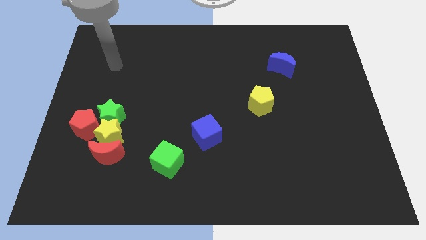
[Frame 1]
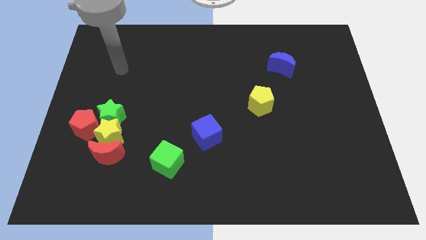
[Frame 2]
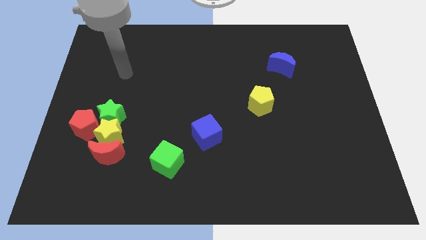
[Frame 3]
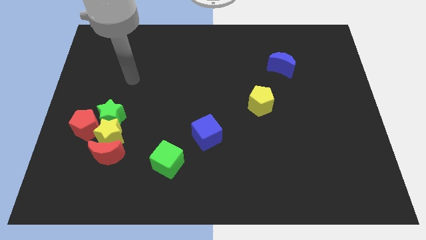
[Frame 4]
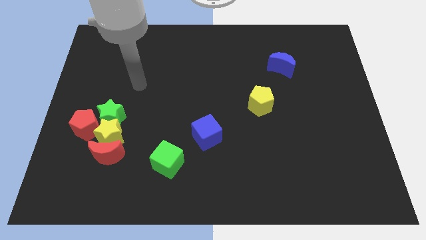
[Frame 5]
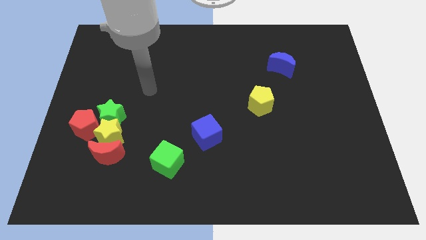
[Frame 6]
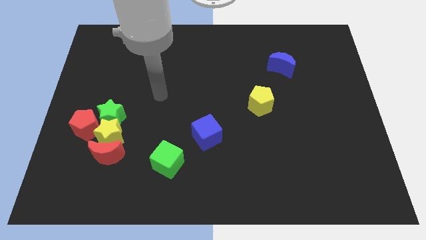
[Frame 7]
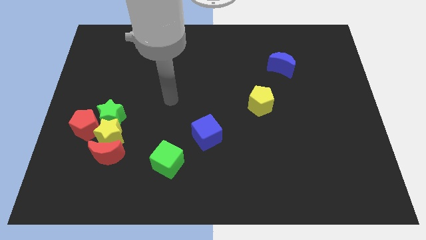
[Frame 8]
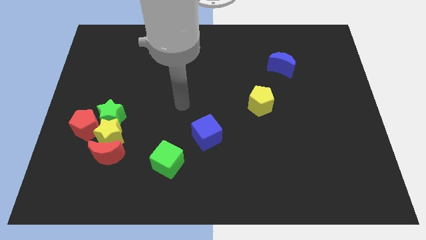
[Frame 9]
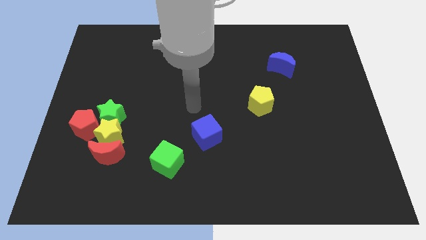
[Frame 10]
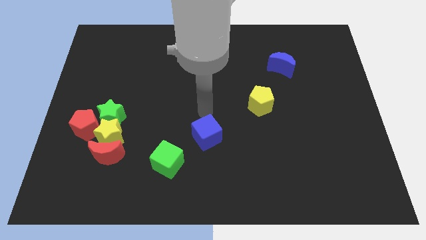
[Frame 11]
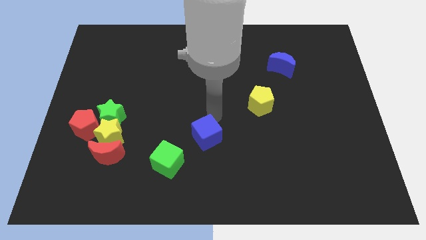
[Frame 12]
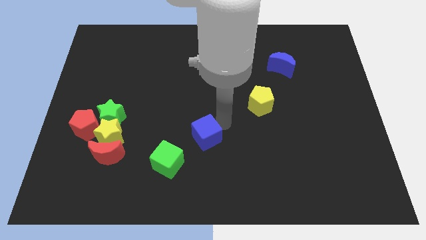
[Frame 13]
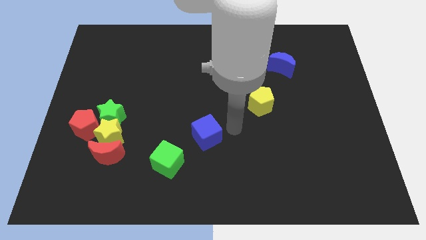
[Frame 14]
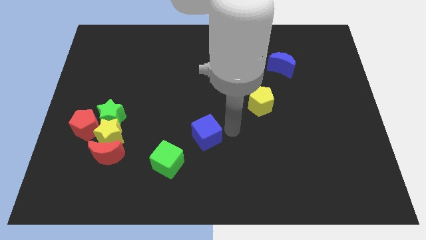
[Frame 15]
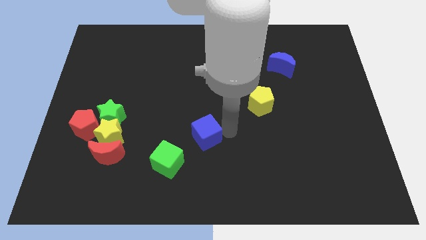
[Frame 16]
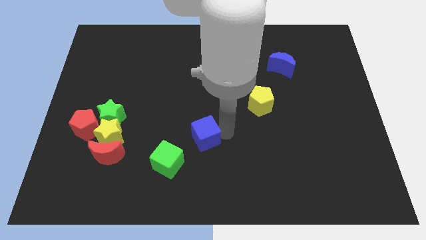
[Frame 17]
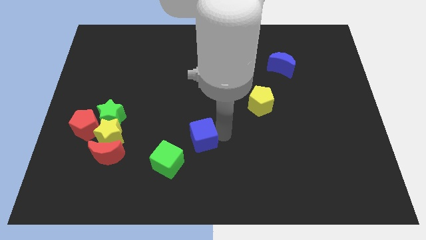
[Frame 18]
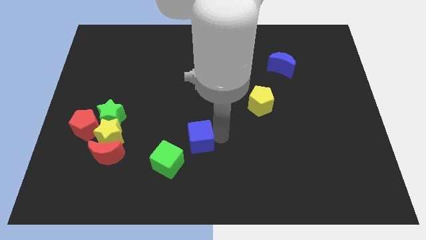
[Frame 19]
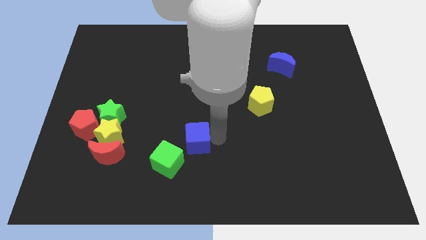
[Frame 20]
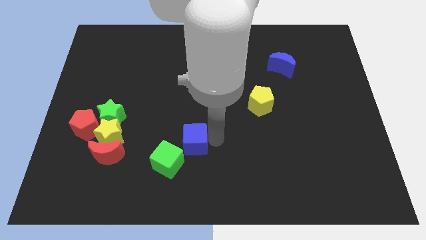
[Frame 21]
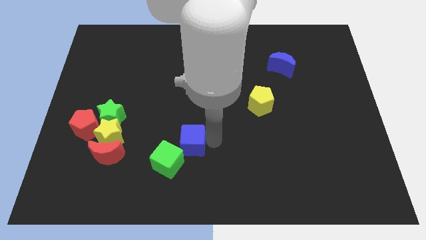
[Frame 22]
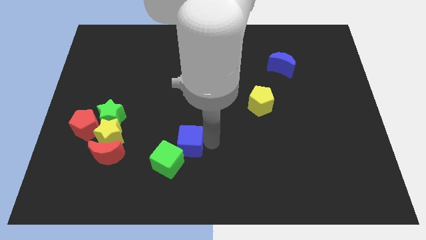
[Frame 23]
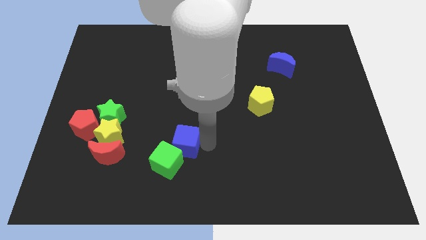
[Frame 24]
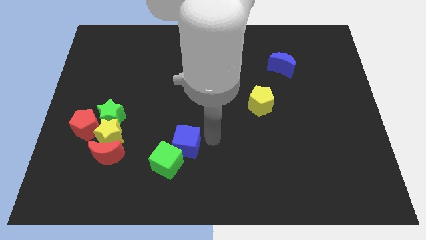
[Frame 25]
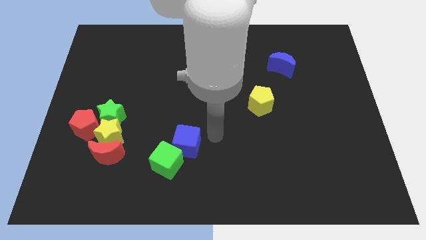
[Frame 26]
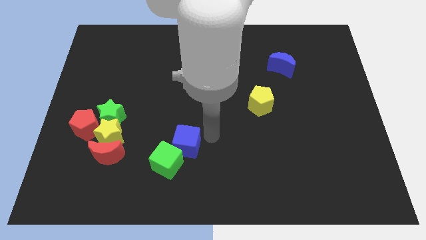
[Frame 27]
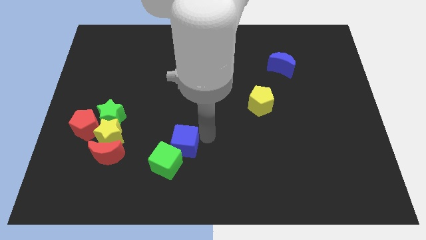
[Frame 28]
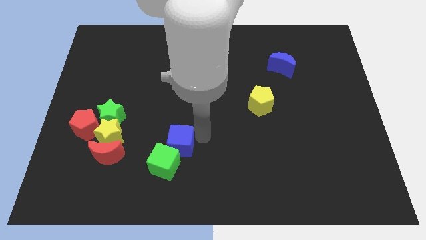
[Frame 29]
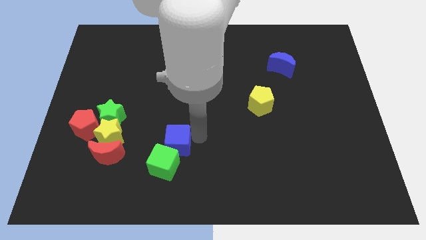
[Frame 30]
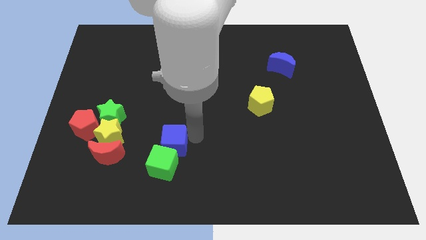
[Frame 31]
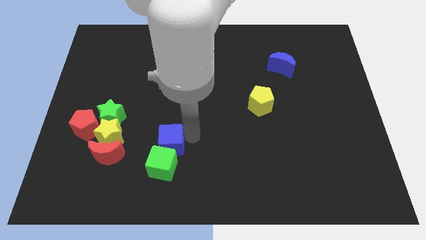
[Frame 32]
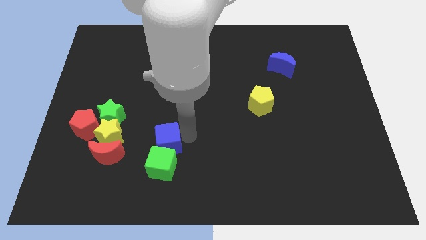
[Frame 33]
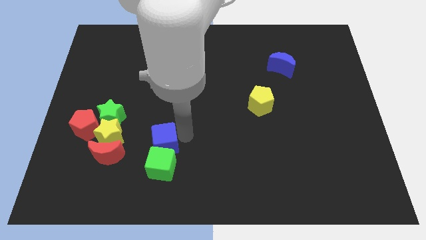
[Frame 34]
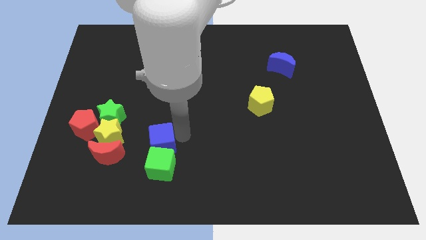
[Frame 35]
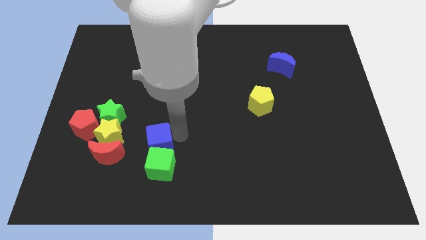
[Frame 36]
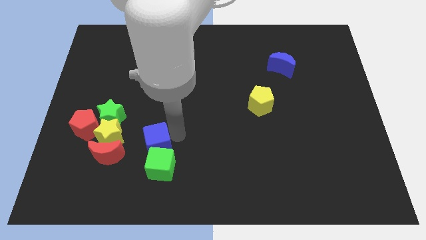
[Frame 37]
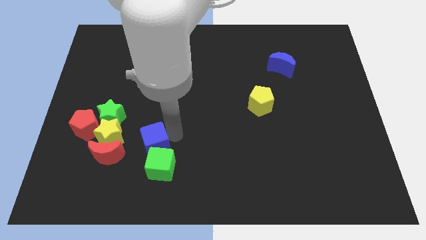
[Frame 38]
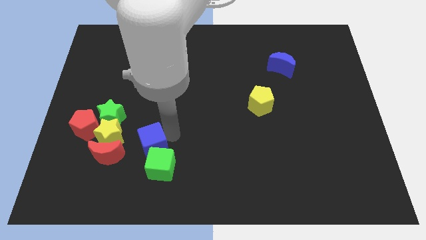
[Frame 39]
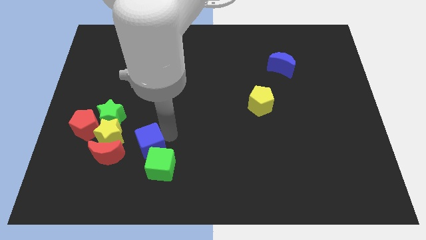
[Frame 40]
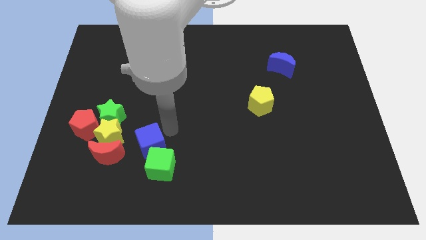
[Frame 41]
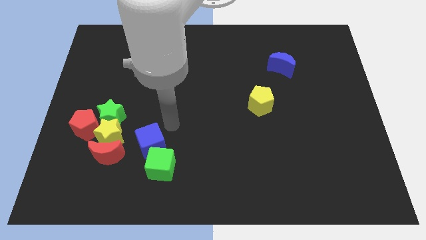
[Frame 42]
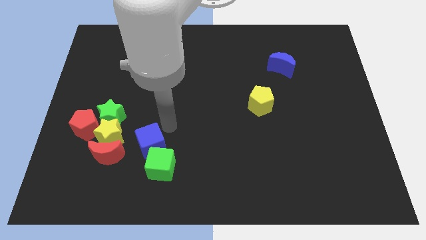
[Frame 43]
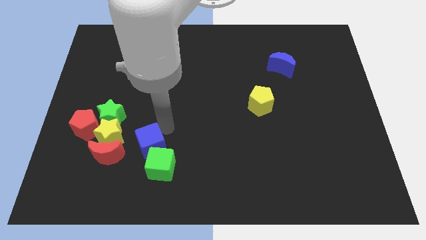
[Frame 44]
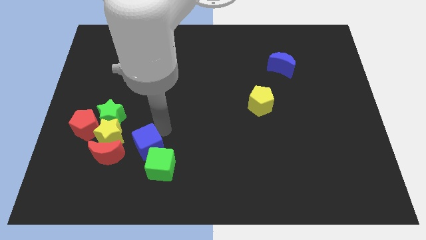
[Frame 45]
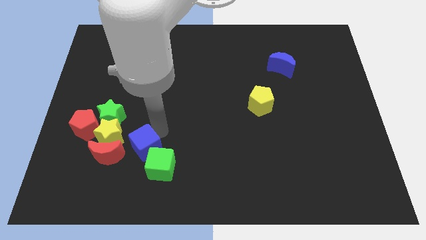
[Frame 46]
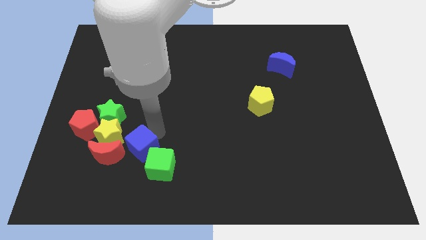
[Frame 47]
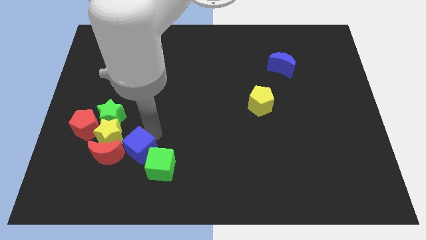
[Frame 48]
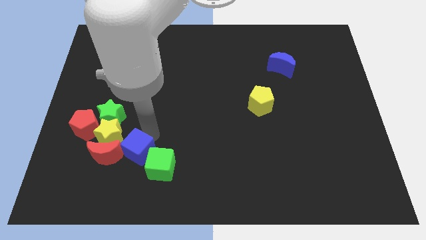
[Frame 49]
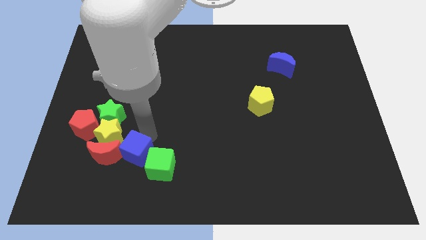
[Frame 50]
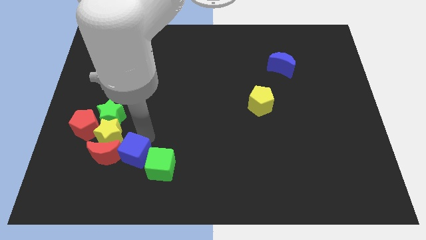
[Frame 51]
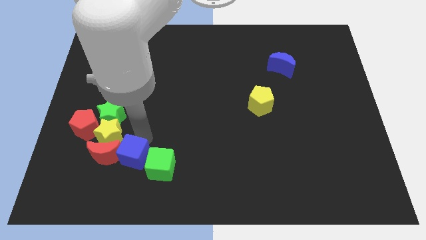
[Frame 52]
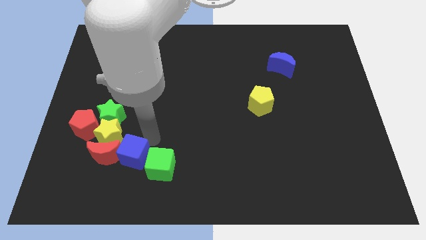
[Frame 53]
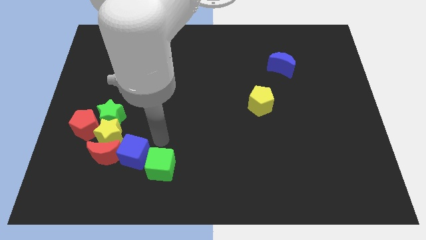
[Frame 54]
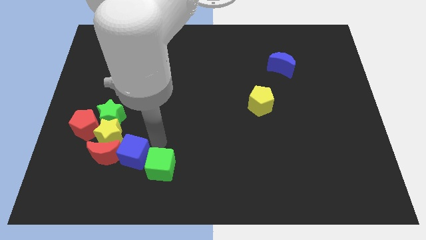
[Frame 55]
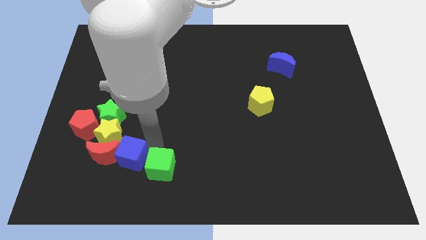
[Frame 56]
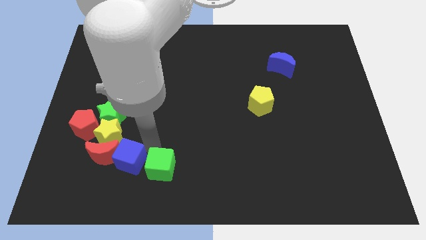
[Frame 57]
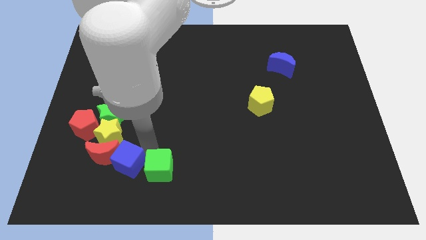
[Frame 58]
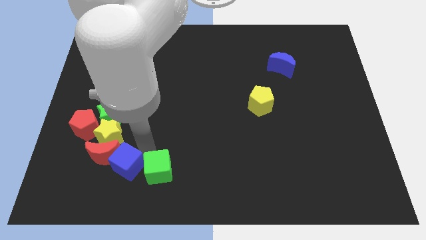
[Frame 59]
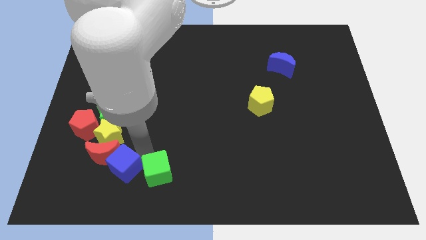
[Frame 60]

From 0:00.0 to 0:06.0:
put the blue cube to the bottom of the green star

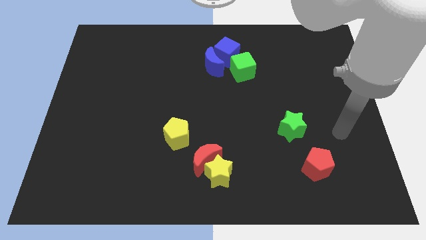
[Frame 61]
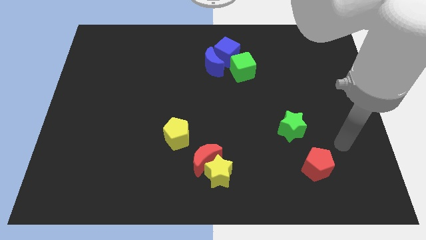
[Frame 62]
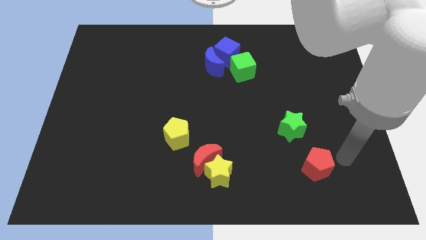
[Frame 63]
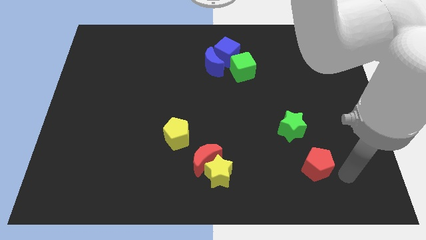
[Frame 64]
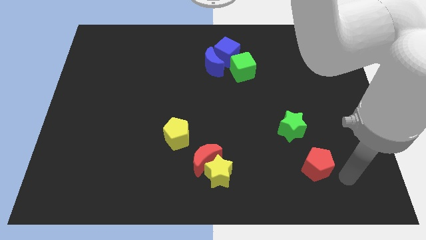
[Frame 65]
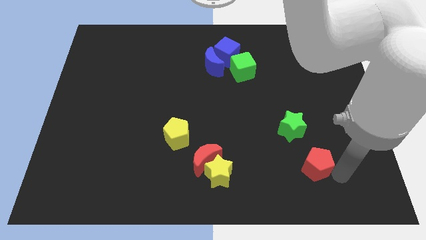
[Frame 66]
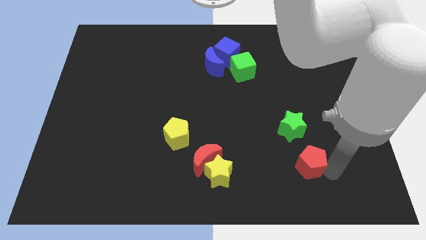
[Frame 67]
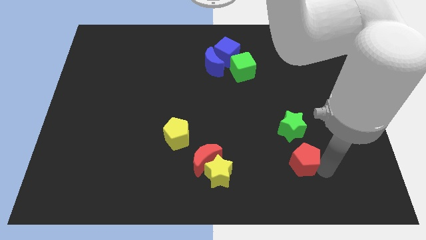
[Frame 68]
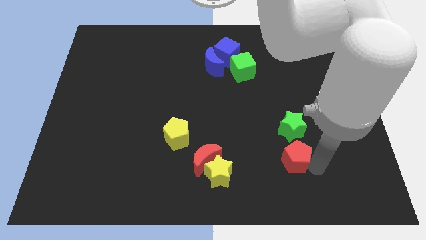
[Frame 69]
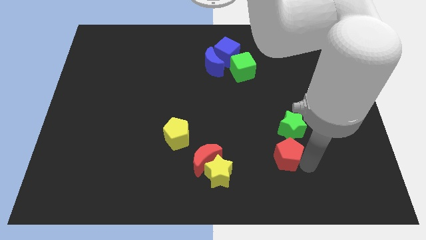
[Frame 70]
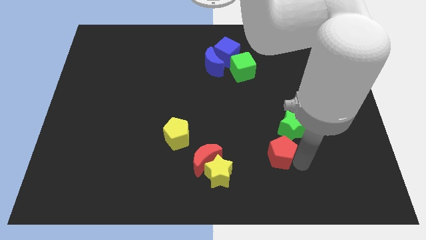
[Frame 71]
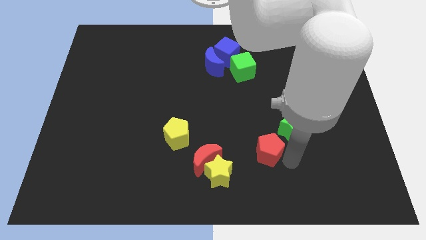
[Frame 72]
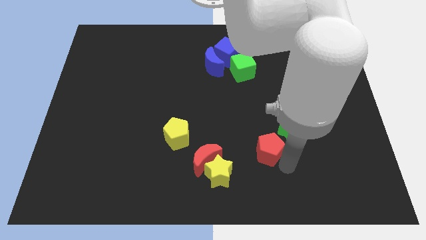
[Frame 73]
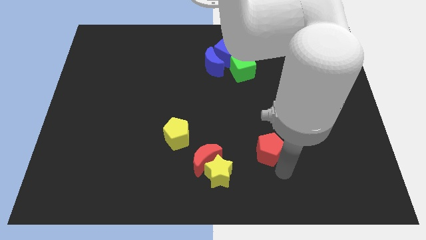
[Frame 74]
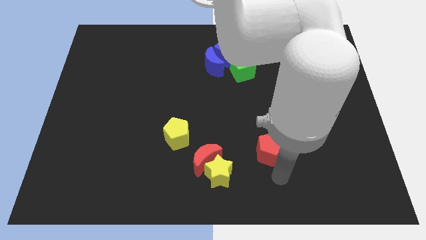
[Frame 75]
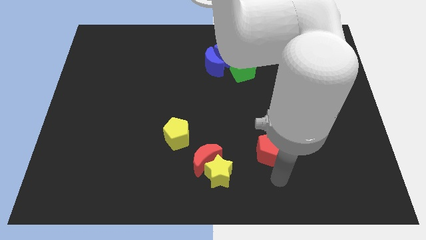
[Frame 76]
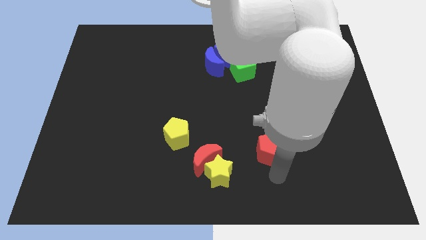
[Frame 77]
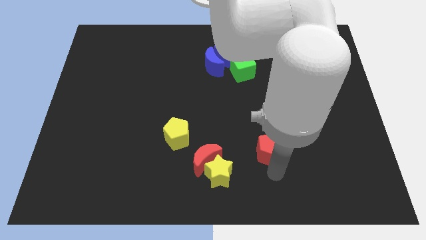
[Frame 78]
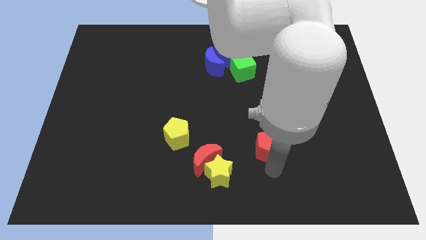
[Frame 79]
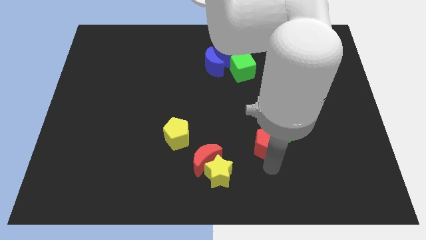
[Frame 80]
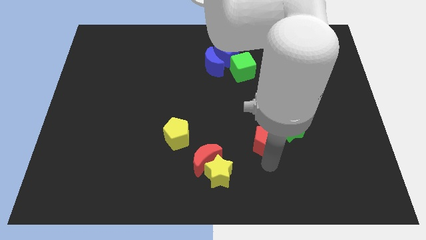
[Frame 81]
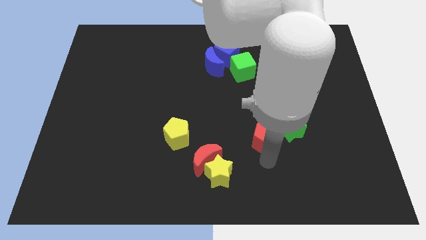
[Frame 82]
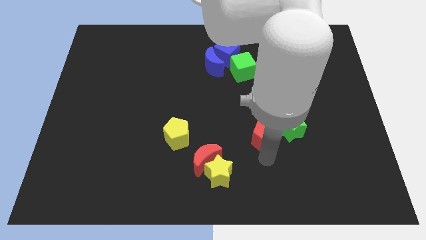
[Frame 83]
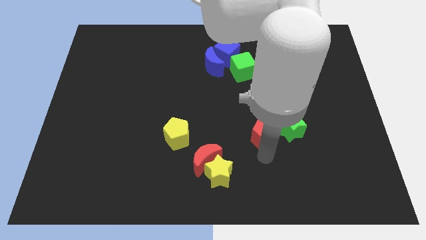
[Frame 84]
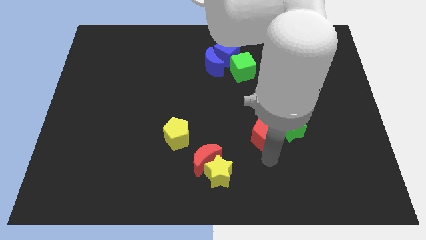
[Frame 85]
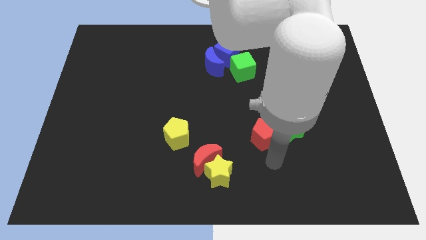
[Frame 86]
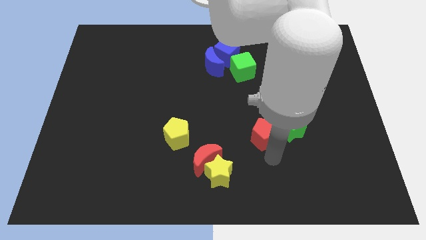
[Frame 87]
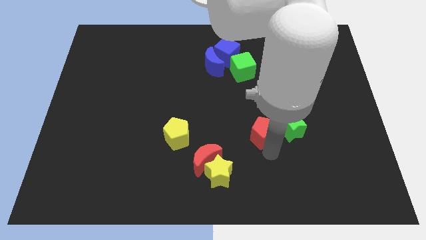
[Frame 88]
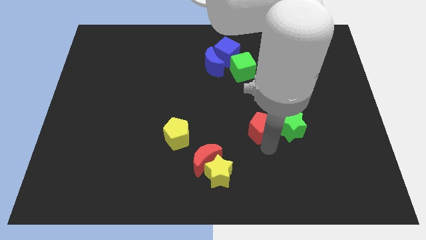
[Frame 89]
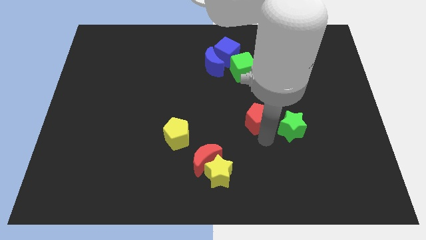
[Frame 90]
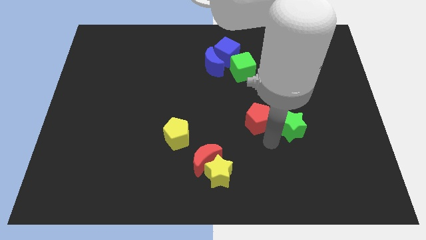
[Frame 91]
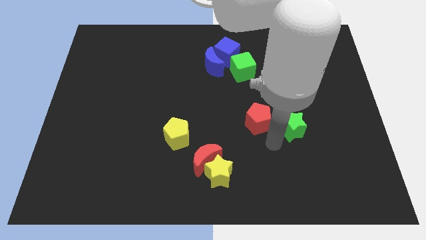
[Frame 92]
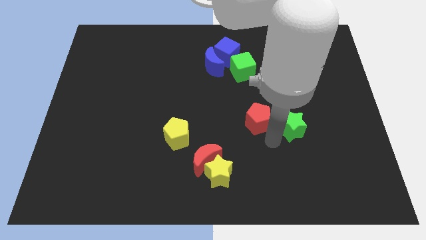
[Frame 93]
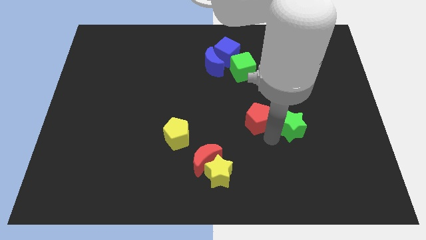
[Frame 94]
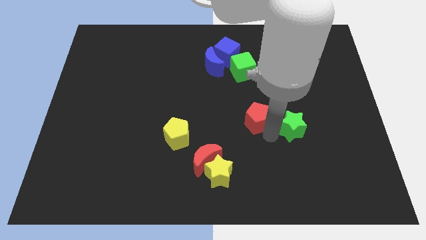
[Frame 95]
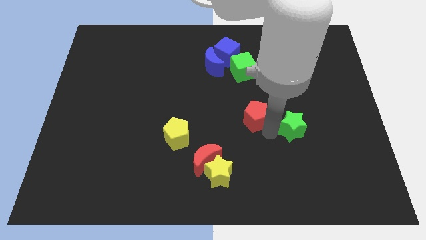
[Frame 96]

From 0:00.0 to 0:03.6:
move the red pentagon below the green cube
